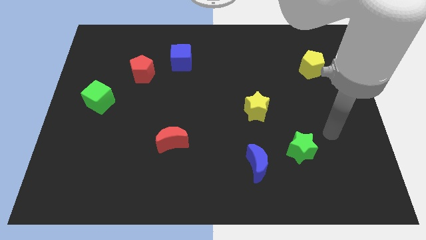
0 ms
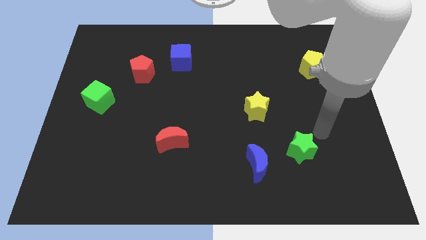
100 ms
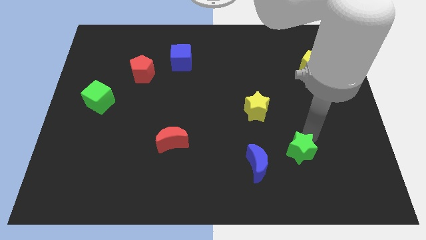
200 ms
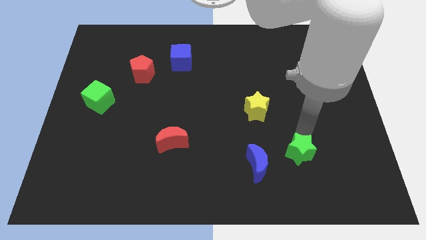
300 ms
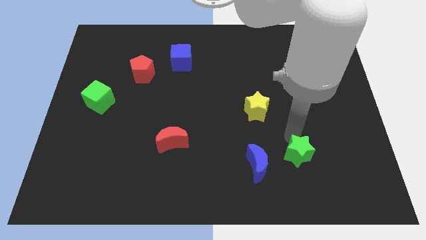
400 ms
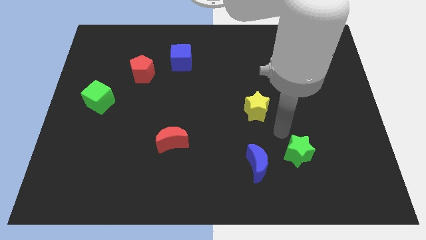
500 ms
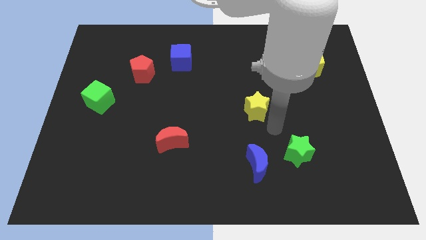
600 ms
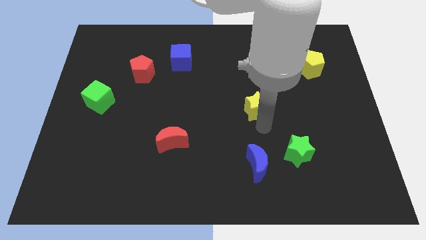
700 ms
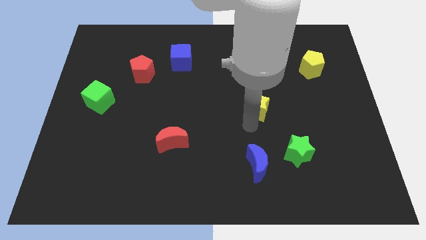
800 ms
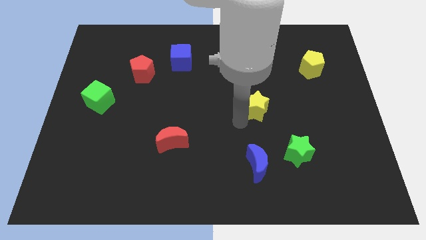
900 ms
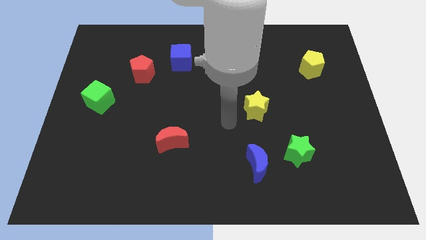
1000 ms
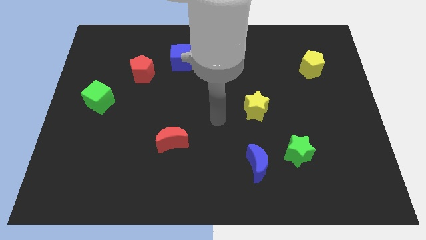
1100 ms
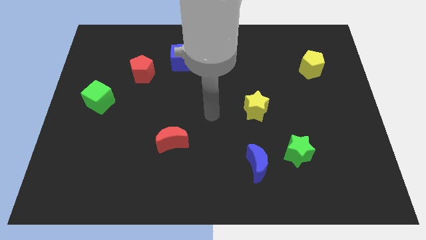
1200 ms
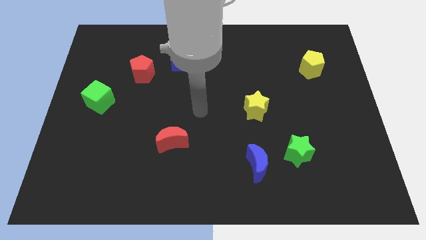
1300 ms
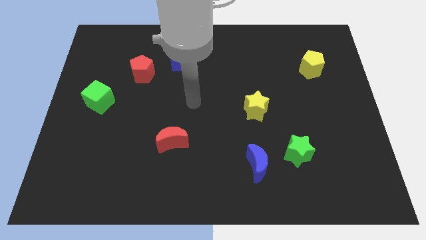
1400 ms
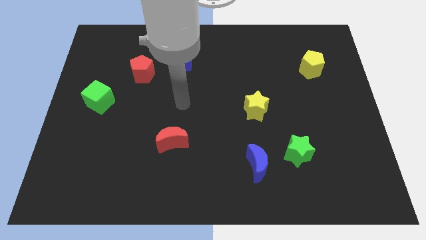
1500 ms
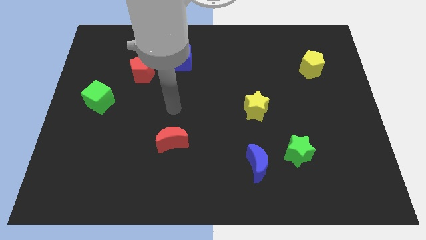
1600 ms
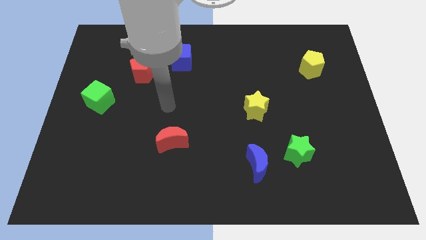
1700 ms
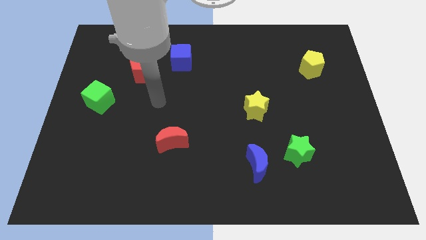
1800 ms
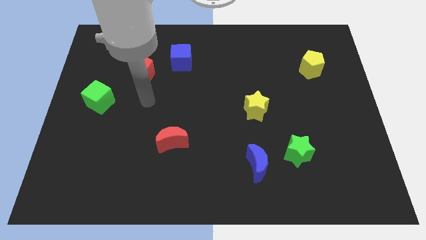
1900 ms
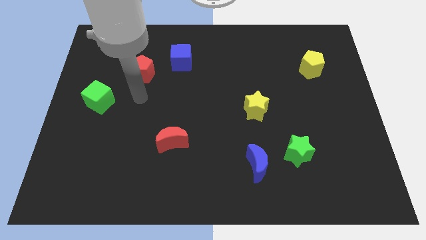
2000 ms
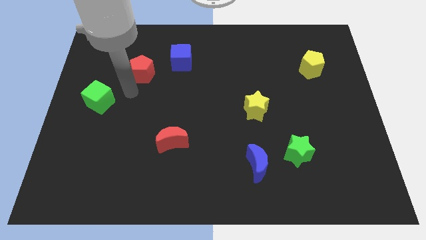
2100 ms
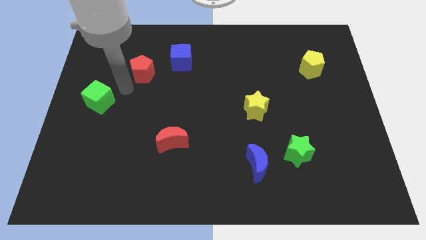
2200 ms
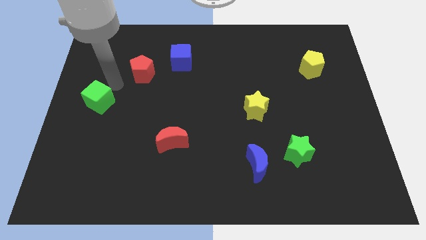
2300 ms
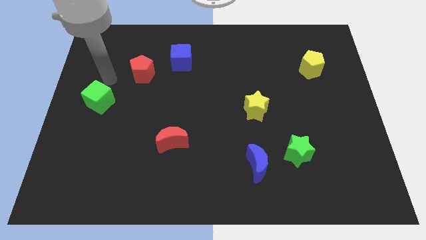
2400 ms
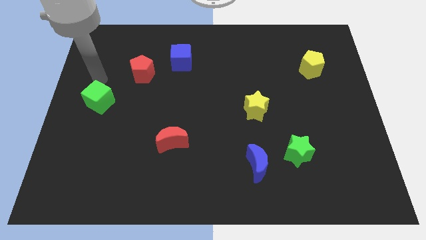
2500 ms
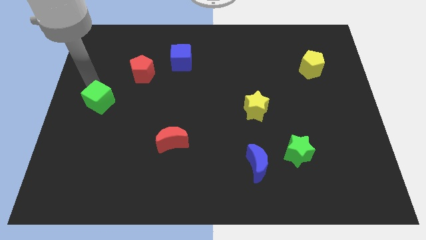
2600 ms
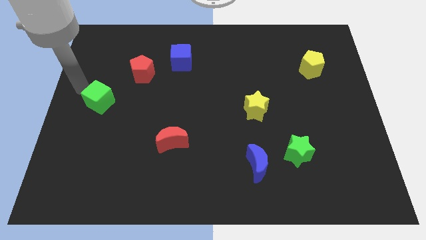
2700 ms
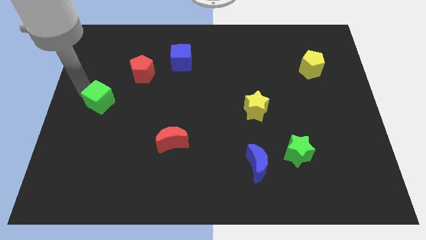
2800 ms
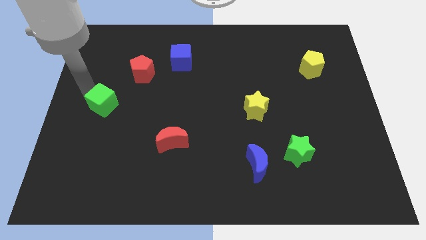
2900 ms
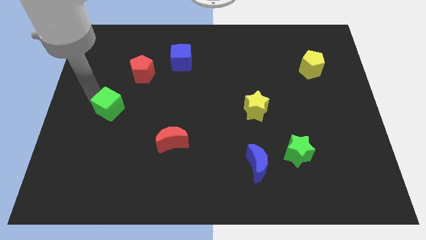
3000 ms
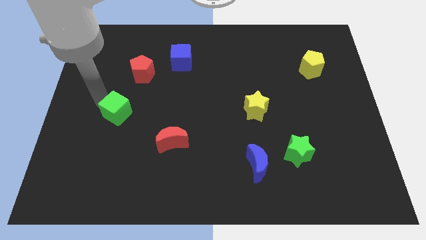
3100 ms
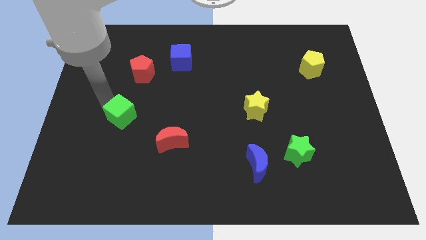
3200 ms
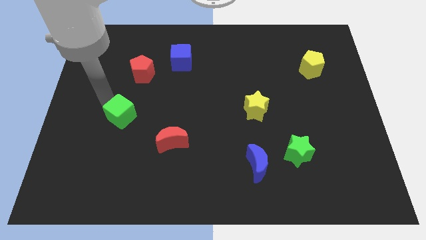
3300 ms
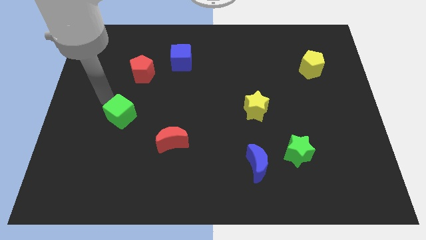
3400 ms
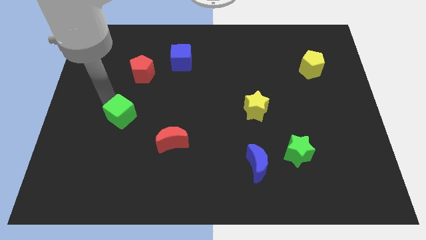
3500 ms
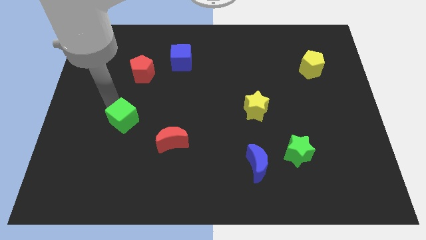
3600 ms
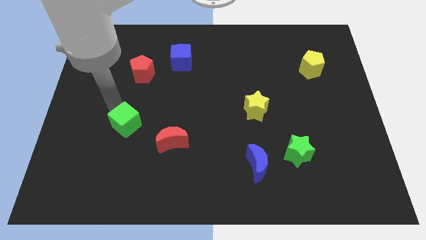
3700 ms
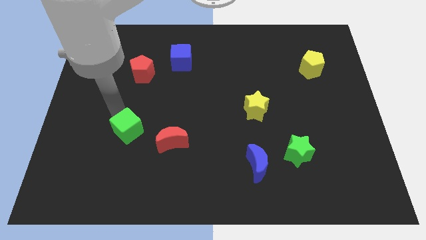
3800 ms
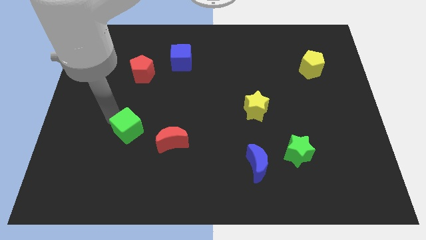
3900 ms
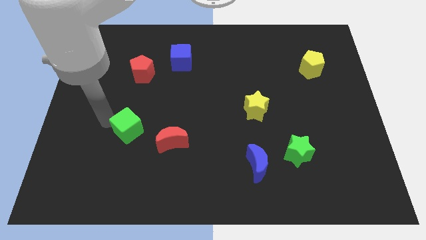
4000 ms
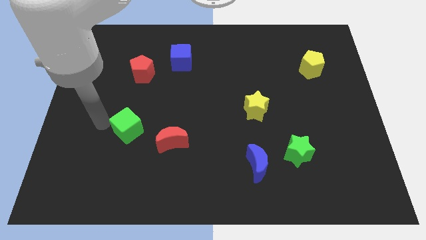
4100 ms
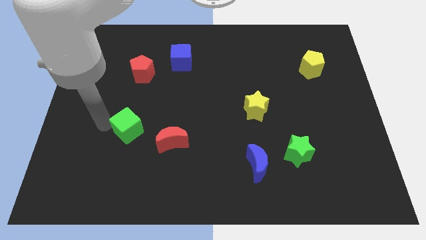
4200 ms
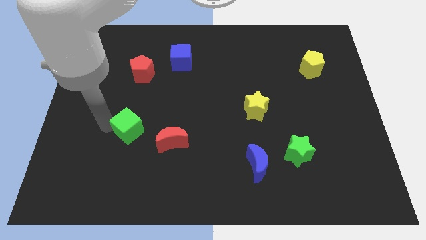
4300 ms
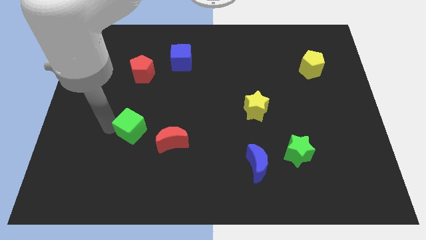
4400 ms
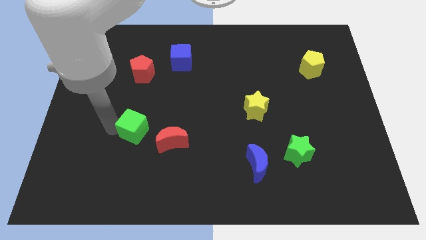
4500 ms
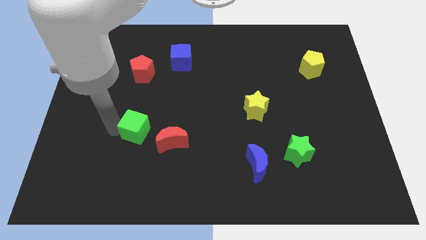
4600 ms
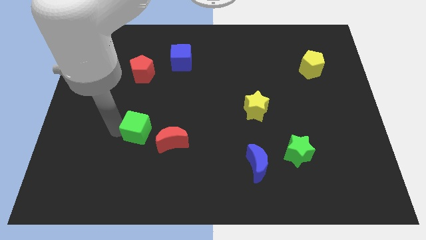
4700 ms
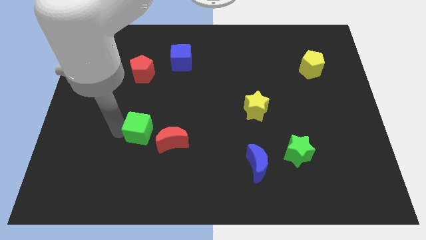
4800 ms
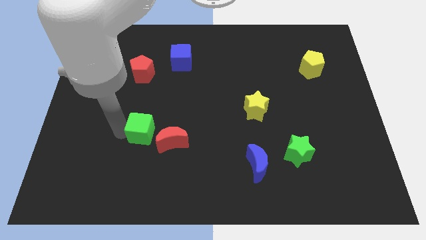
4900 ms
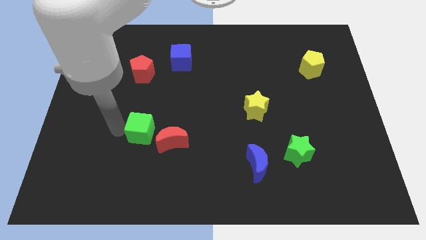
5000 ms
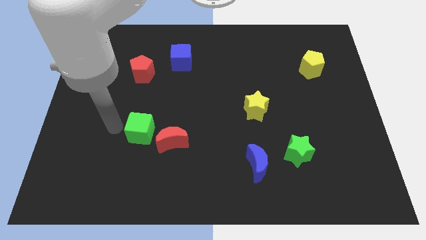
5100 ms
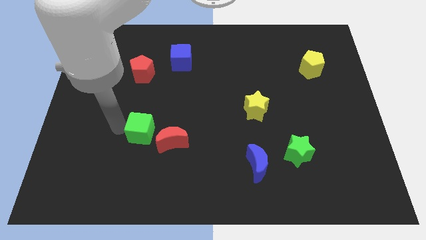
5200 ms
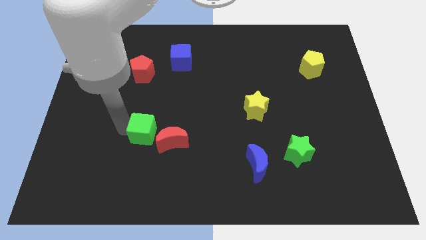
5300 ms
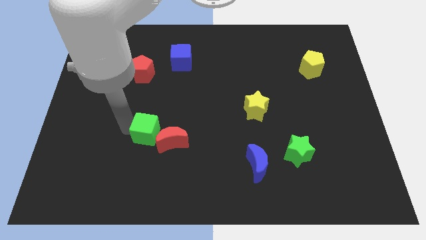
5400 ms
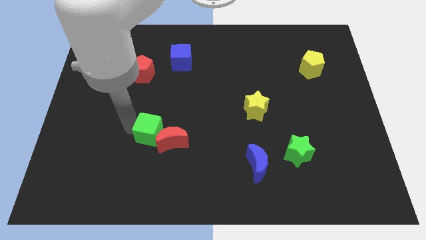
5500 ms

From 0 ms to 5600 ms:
put the green cube towards the red moon

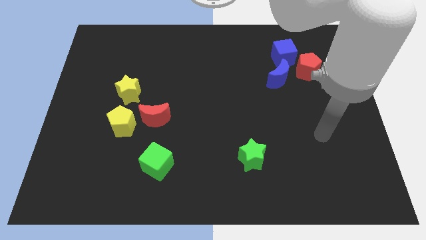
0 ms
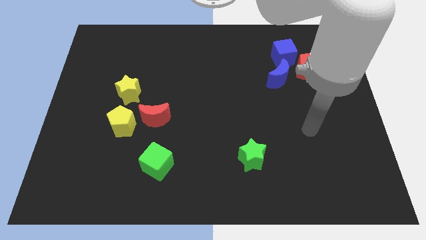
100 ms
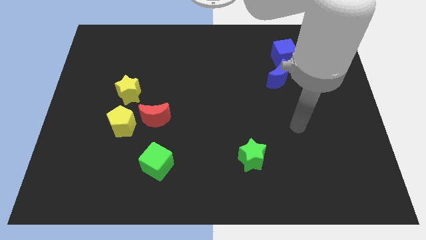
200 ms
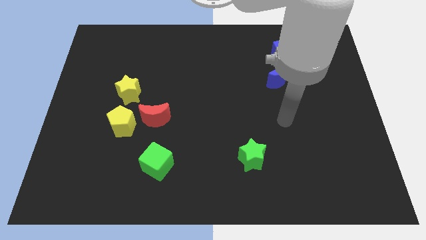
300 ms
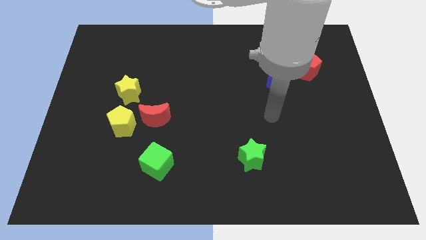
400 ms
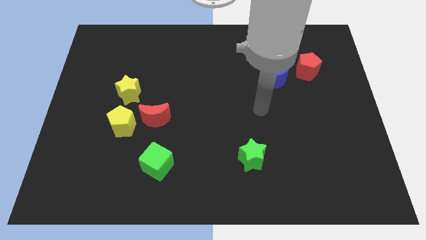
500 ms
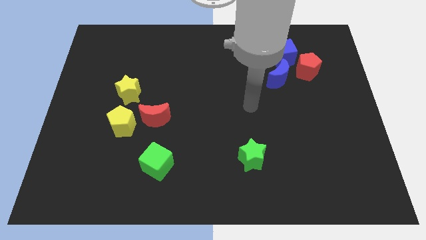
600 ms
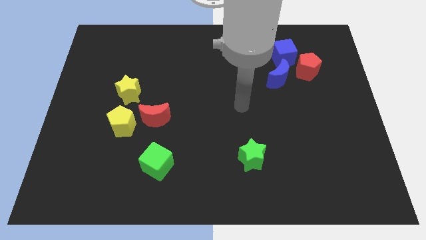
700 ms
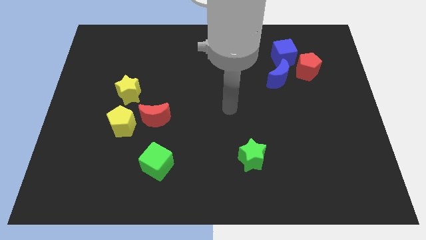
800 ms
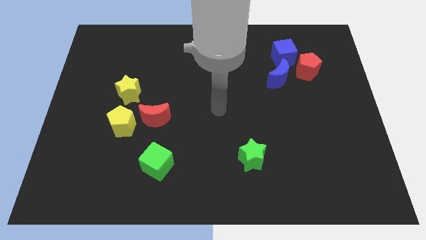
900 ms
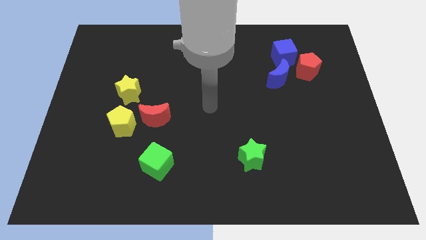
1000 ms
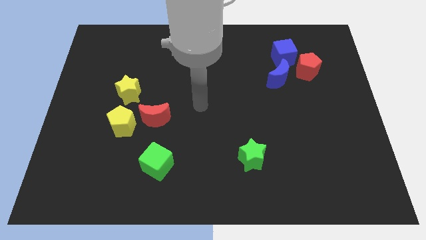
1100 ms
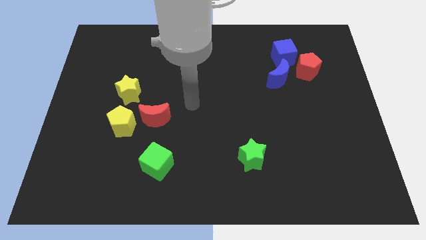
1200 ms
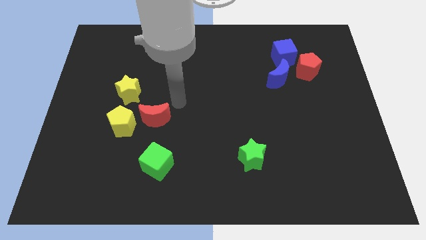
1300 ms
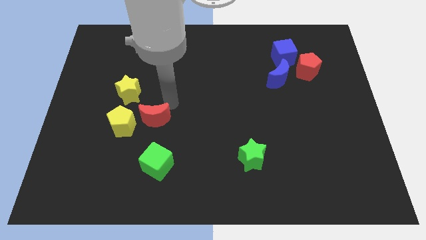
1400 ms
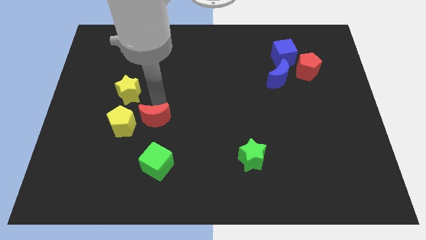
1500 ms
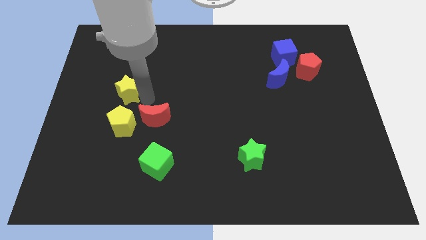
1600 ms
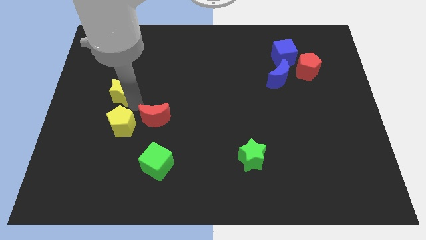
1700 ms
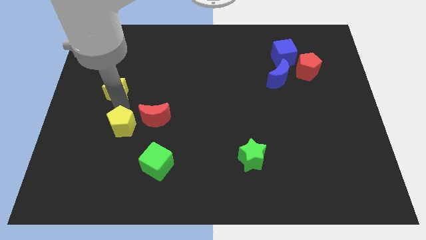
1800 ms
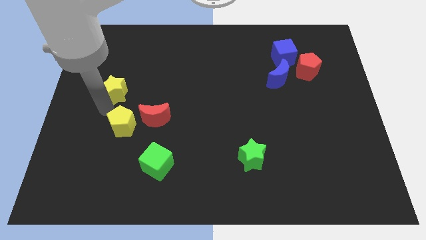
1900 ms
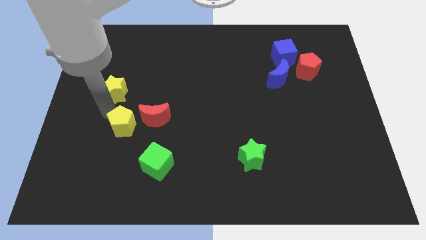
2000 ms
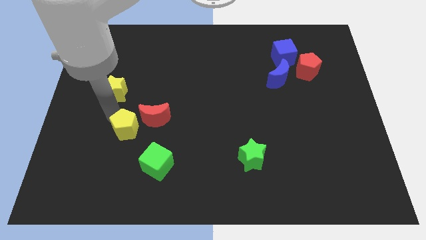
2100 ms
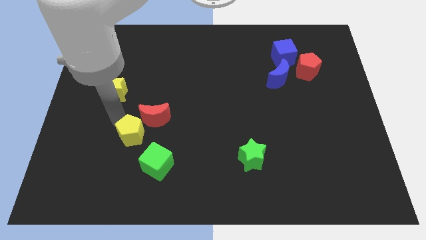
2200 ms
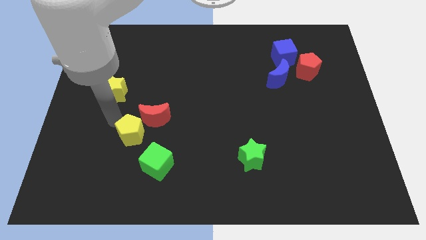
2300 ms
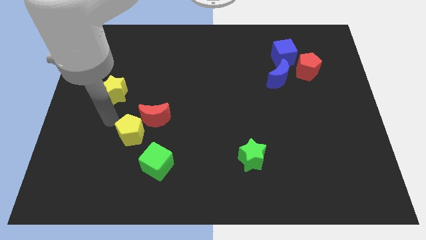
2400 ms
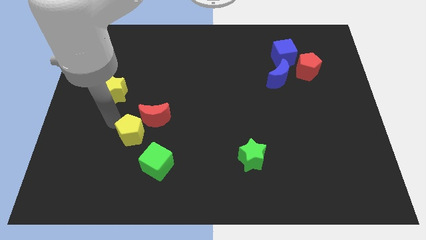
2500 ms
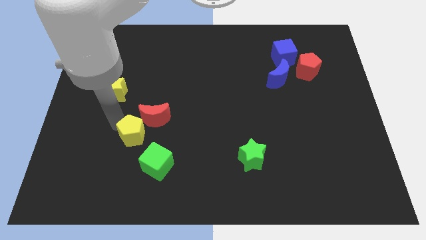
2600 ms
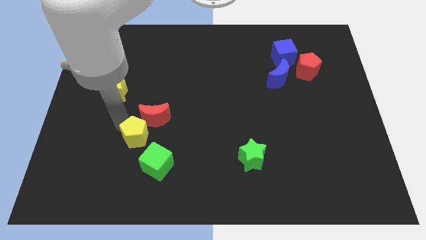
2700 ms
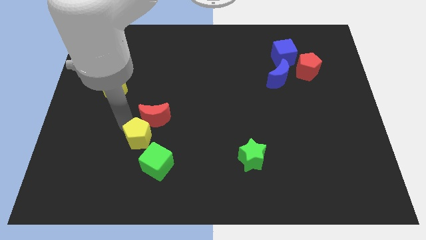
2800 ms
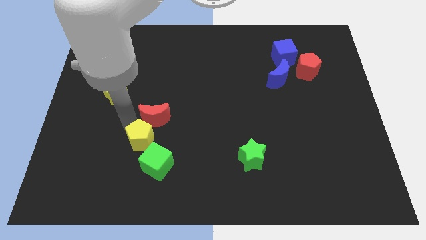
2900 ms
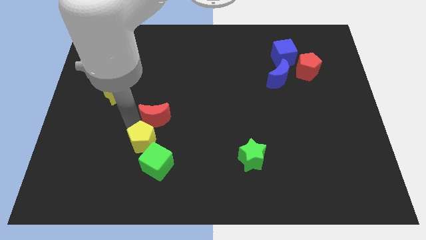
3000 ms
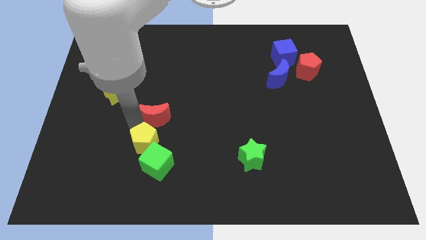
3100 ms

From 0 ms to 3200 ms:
move the yellow pentagon towards the green cube
